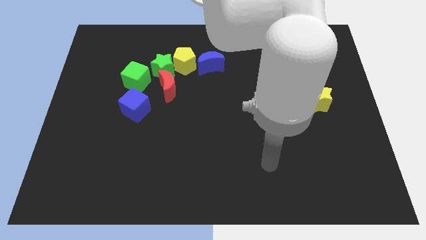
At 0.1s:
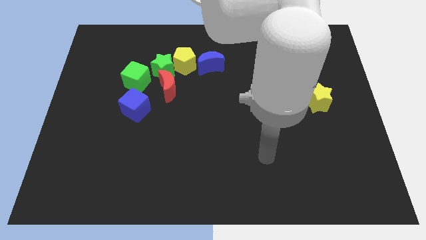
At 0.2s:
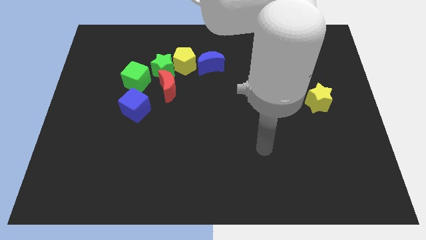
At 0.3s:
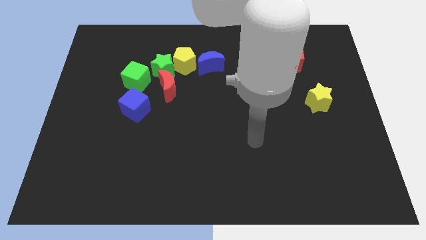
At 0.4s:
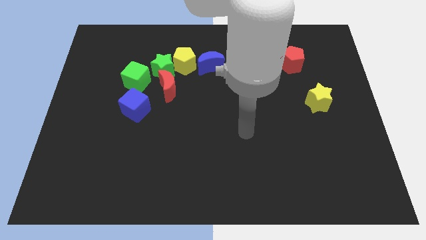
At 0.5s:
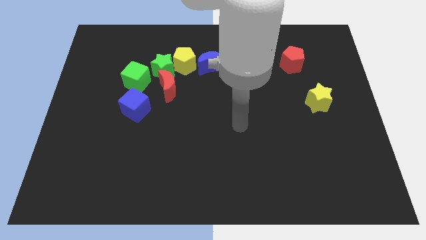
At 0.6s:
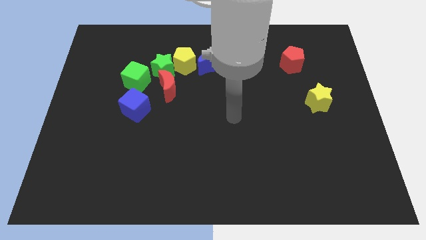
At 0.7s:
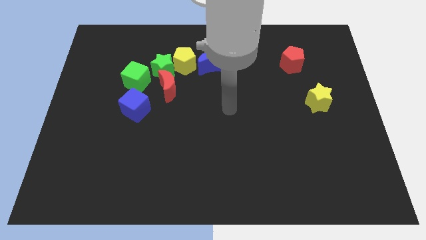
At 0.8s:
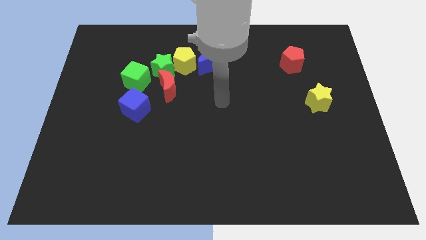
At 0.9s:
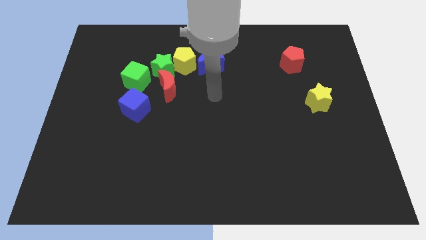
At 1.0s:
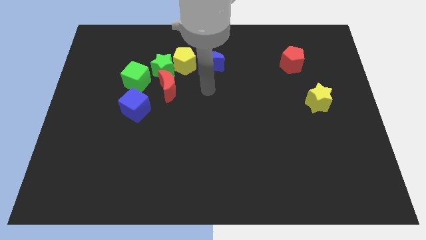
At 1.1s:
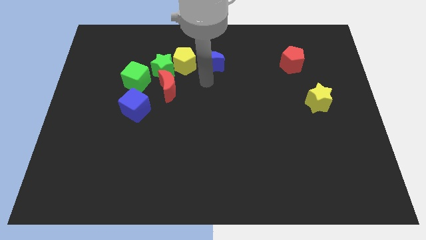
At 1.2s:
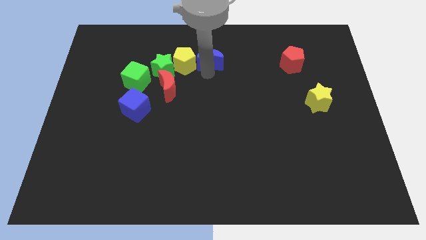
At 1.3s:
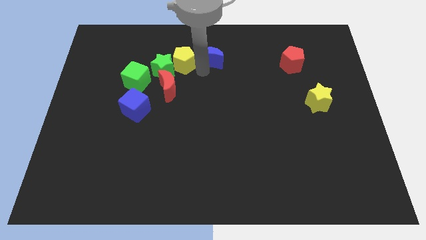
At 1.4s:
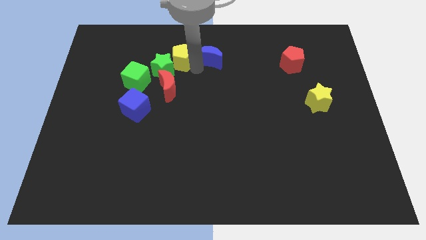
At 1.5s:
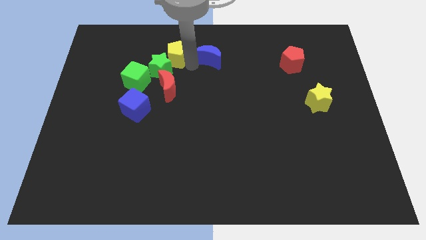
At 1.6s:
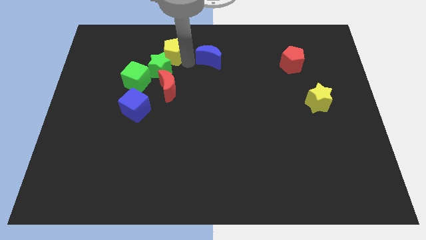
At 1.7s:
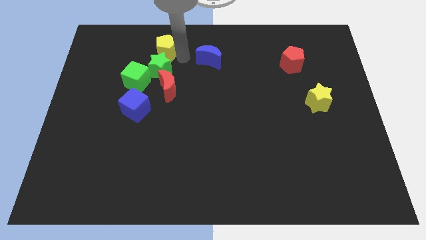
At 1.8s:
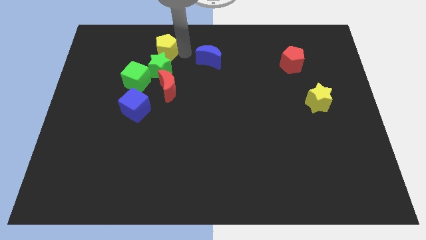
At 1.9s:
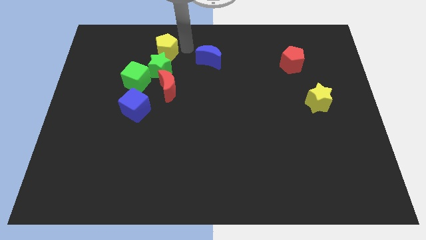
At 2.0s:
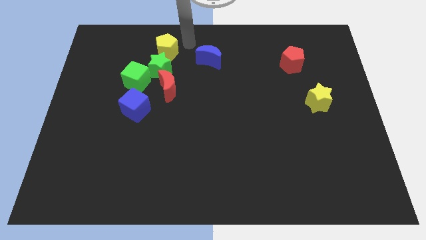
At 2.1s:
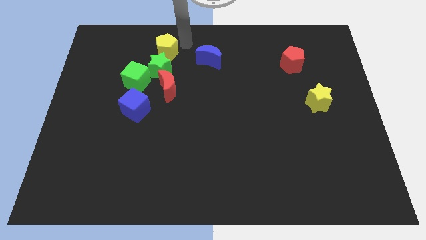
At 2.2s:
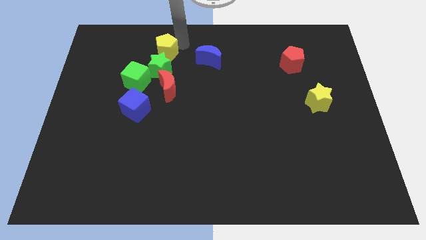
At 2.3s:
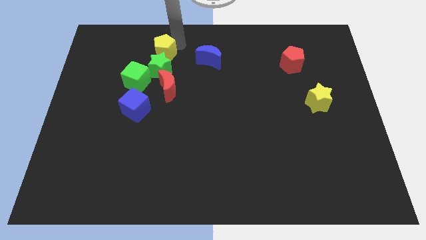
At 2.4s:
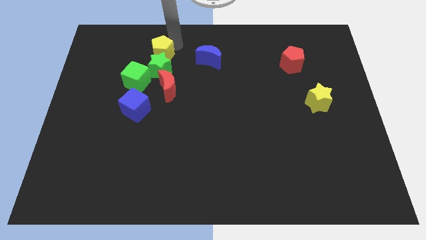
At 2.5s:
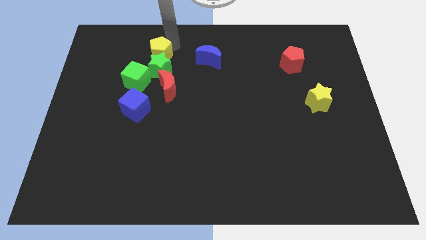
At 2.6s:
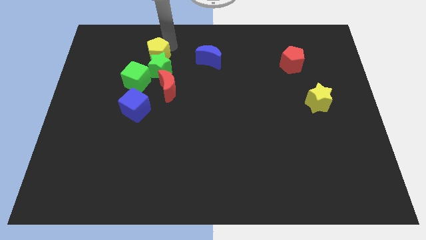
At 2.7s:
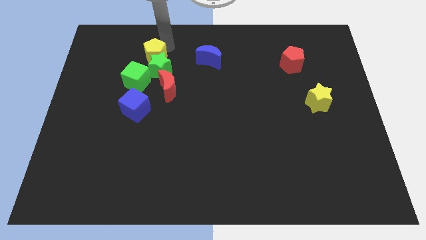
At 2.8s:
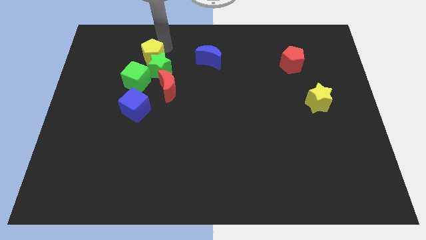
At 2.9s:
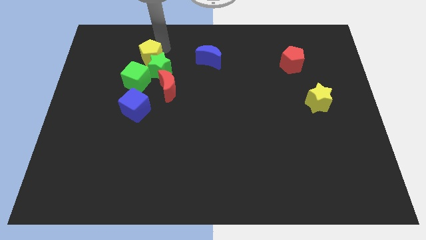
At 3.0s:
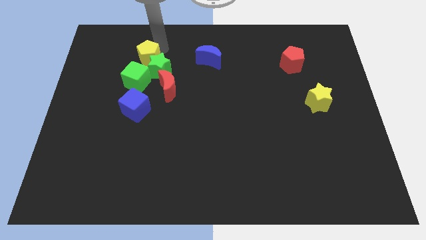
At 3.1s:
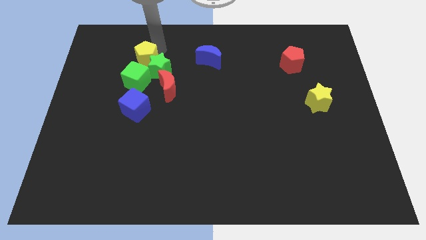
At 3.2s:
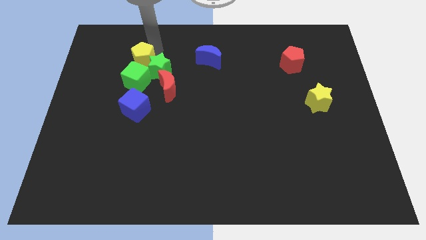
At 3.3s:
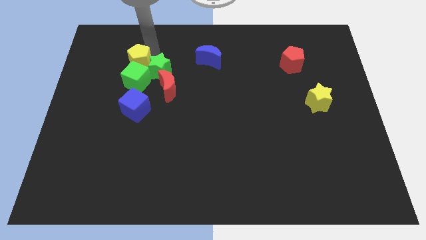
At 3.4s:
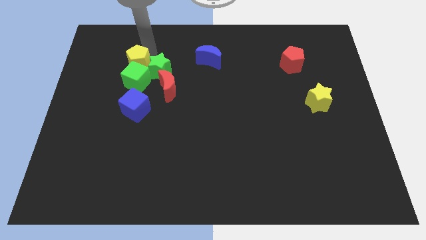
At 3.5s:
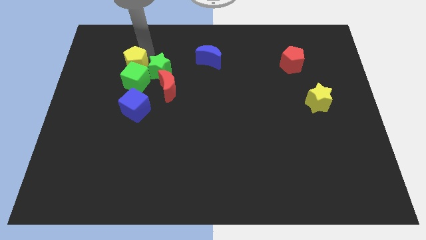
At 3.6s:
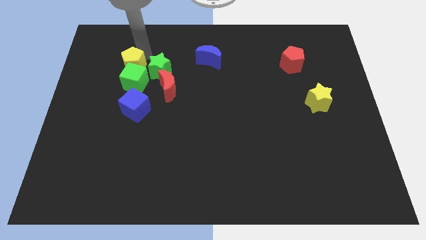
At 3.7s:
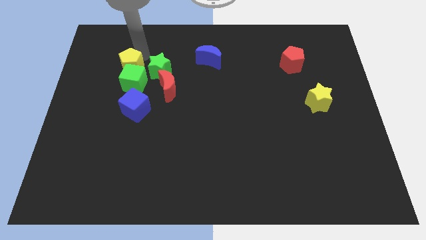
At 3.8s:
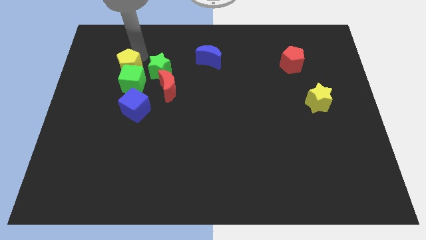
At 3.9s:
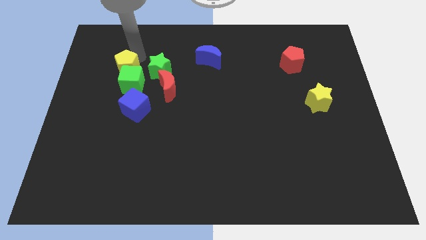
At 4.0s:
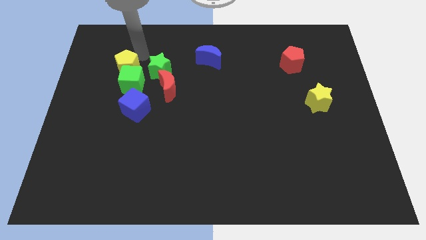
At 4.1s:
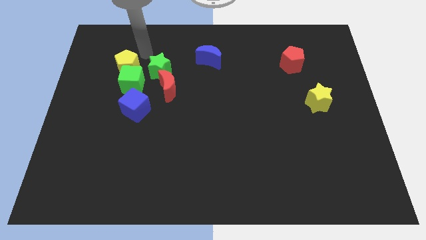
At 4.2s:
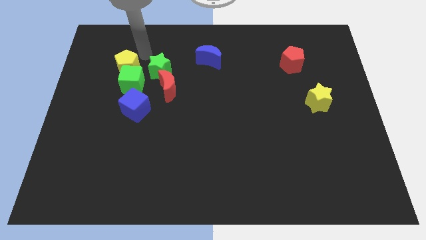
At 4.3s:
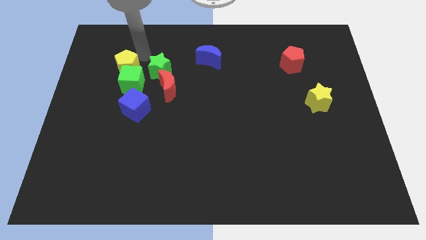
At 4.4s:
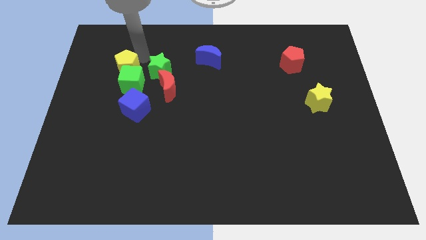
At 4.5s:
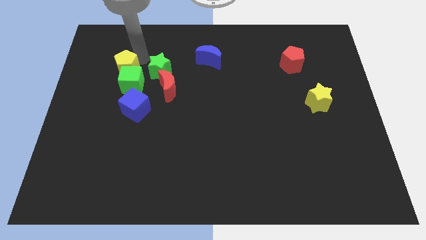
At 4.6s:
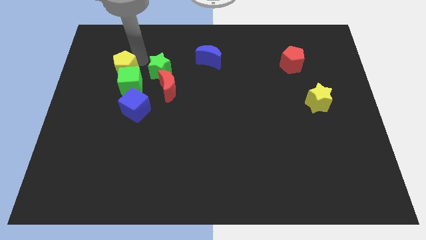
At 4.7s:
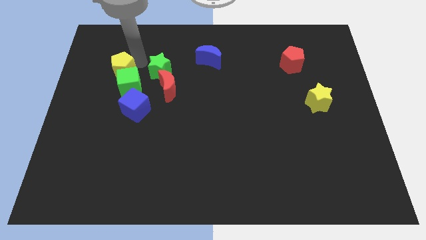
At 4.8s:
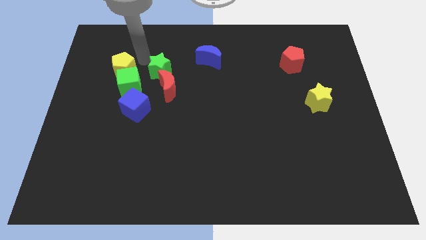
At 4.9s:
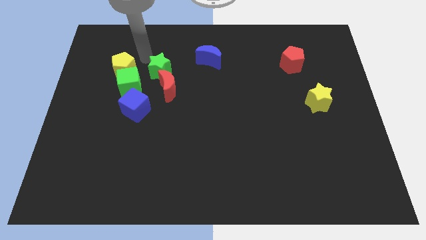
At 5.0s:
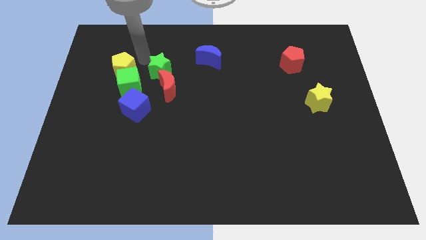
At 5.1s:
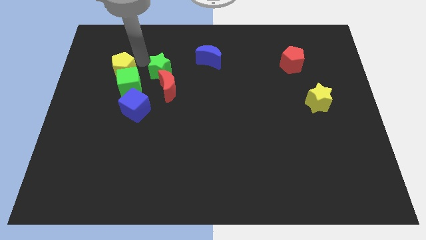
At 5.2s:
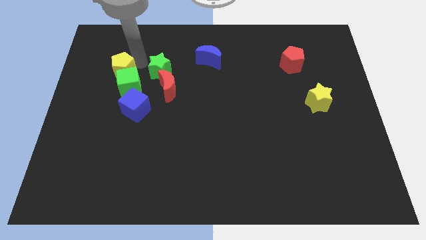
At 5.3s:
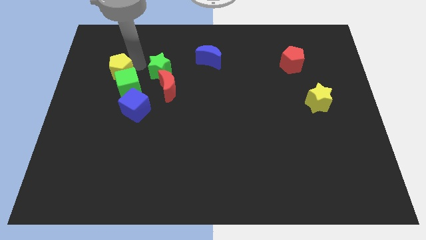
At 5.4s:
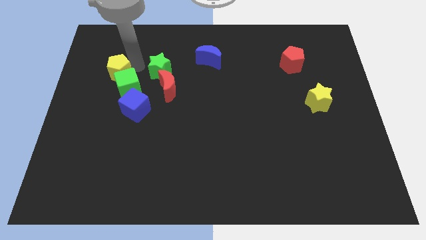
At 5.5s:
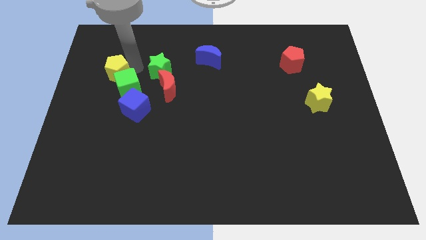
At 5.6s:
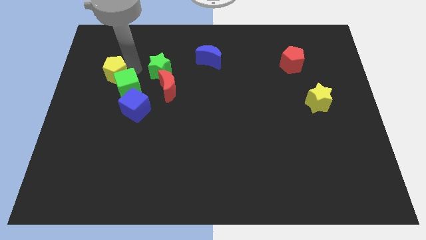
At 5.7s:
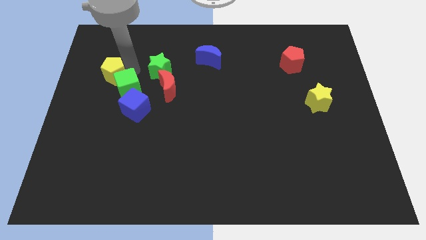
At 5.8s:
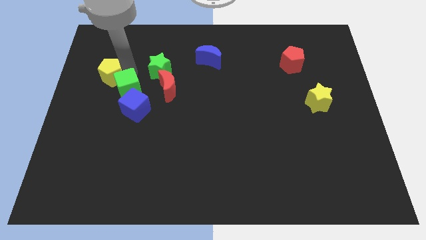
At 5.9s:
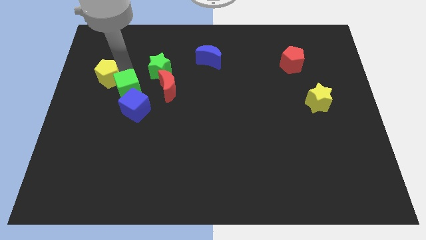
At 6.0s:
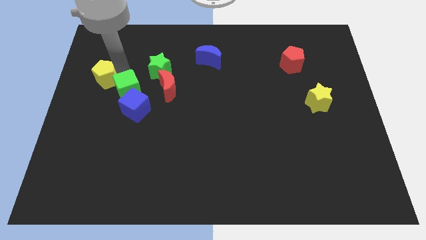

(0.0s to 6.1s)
put the yellow pentagon to the left side

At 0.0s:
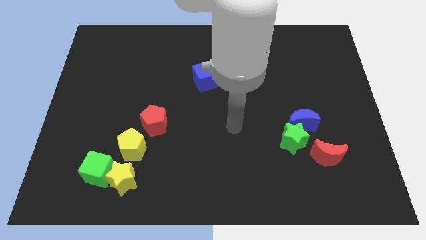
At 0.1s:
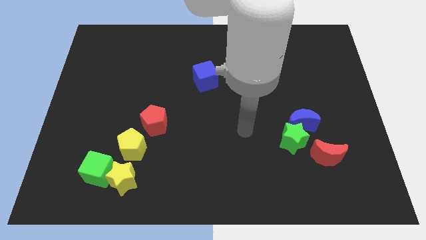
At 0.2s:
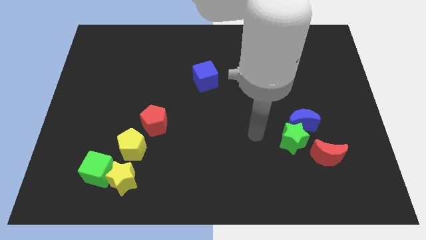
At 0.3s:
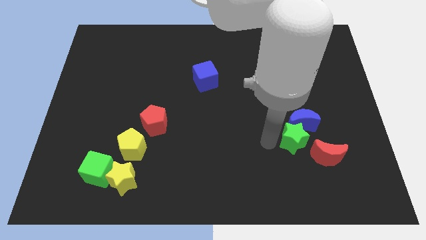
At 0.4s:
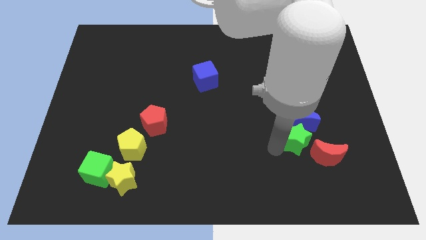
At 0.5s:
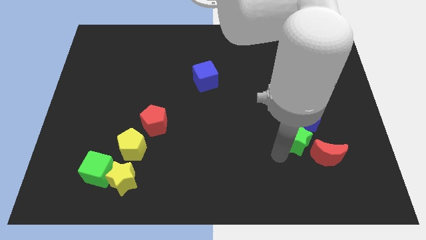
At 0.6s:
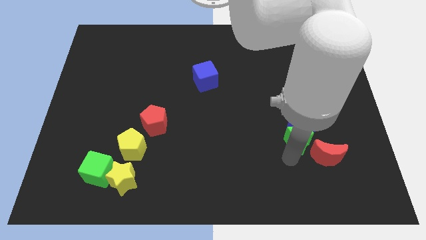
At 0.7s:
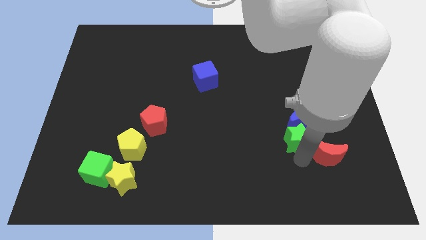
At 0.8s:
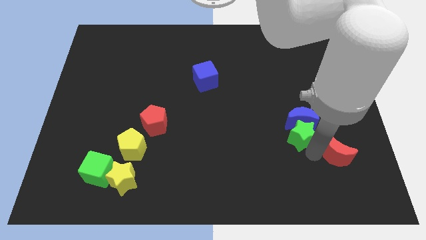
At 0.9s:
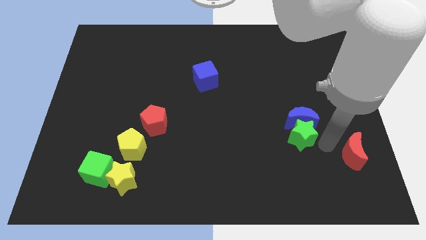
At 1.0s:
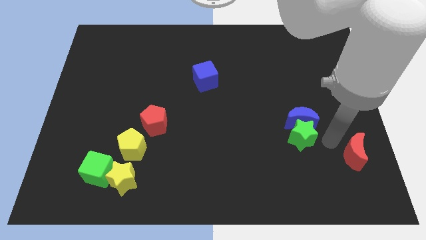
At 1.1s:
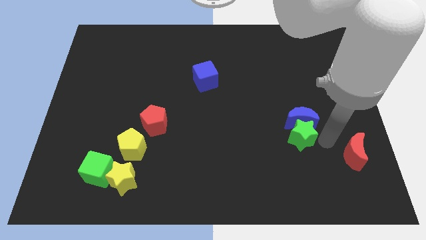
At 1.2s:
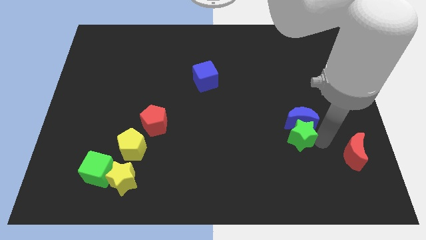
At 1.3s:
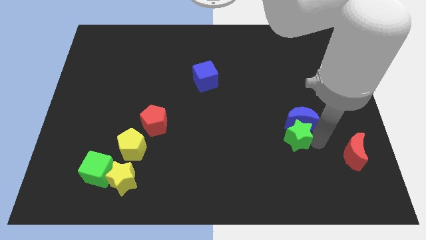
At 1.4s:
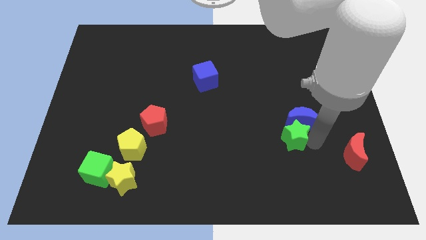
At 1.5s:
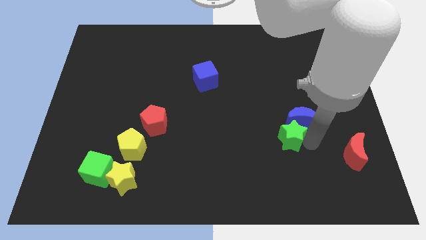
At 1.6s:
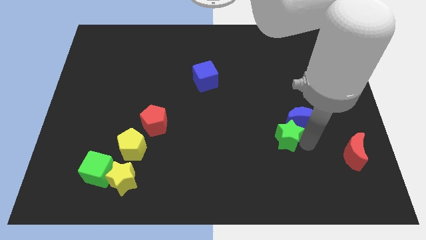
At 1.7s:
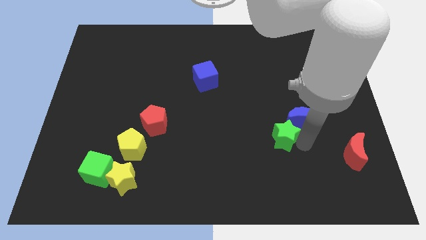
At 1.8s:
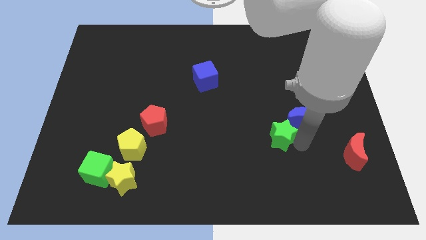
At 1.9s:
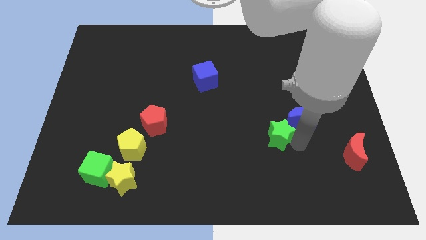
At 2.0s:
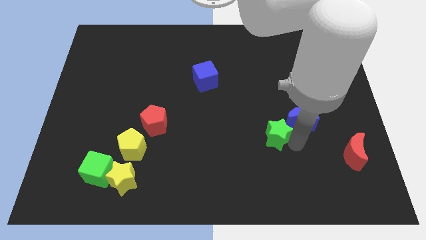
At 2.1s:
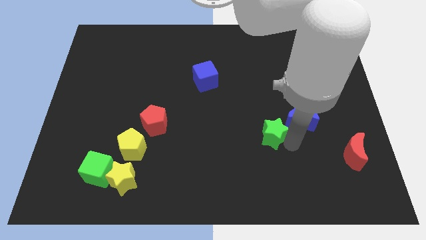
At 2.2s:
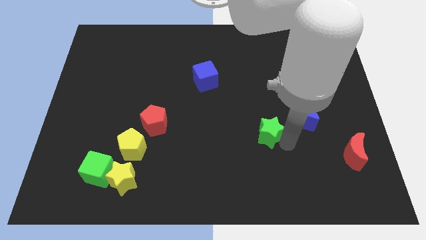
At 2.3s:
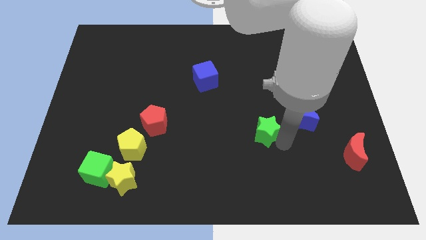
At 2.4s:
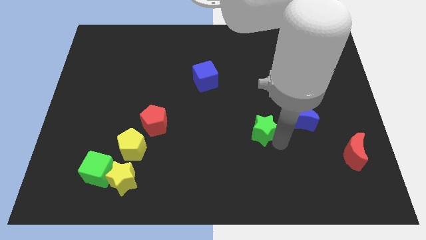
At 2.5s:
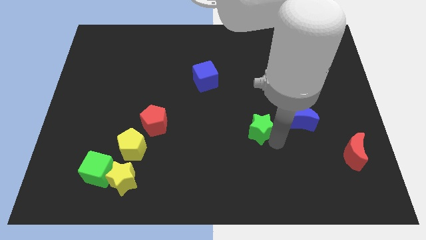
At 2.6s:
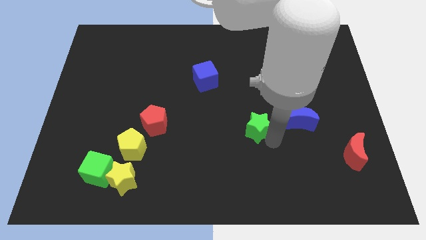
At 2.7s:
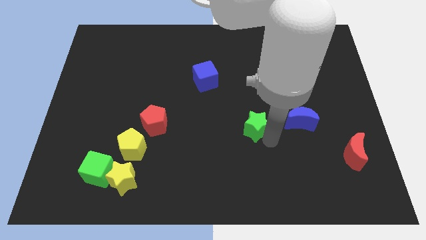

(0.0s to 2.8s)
put the green star to the middle
